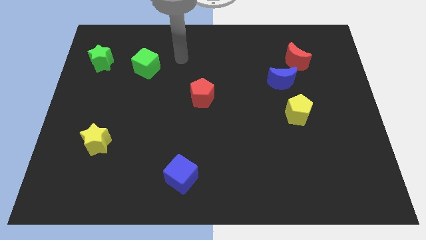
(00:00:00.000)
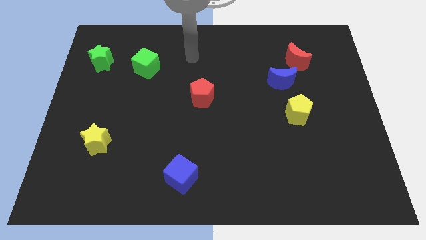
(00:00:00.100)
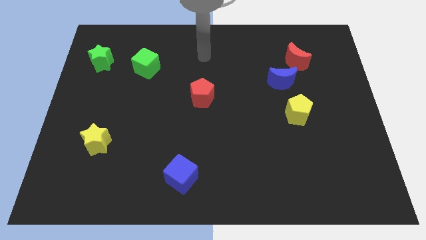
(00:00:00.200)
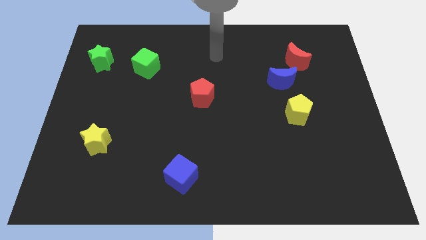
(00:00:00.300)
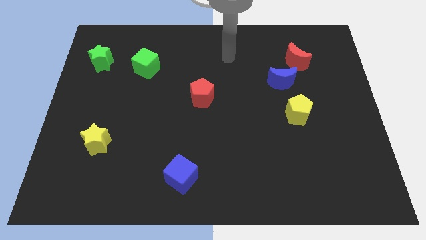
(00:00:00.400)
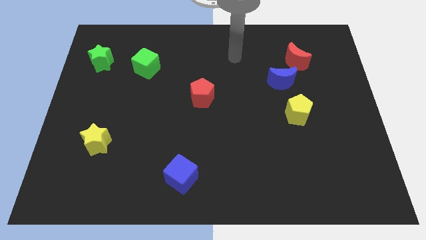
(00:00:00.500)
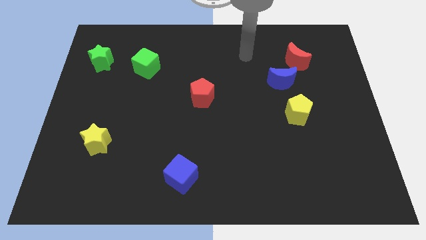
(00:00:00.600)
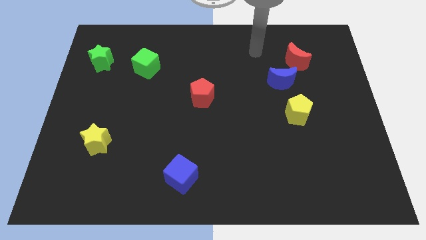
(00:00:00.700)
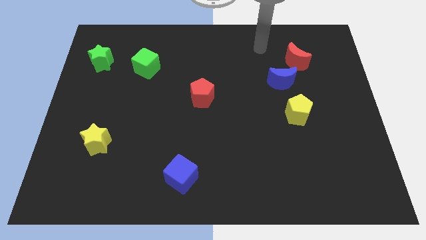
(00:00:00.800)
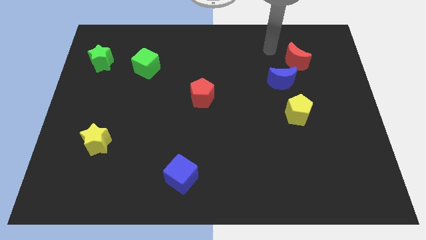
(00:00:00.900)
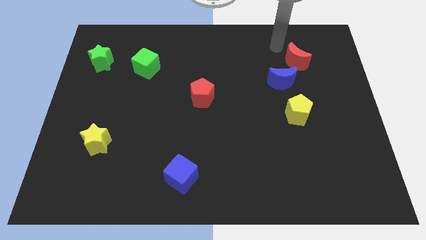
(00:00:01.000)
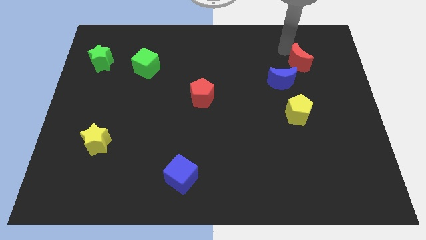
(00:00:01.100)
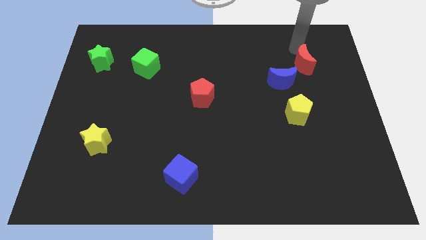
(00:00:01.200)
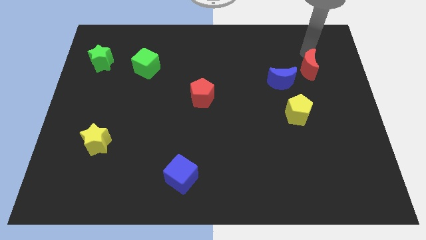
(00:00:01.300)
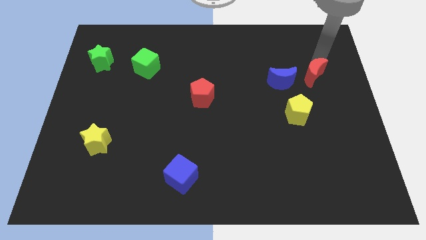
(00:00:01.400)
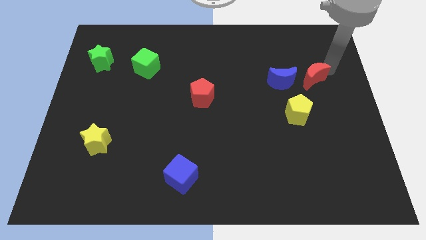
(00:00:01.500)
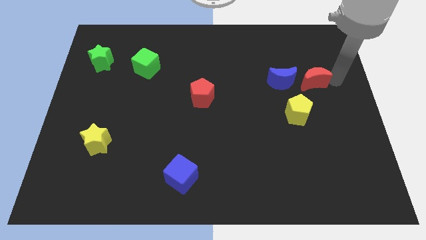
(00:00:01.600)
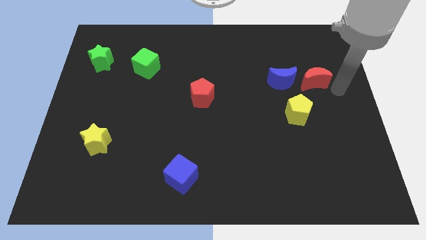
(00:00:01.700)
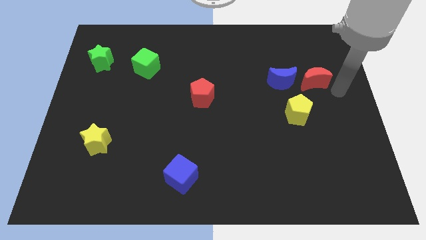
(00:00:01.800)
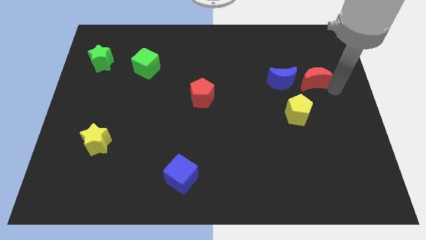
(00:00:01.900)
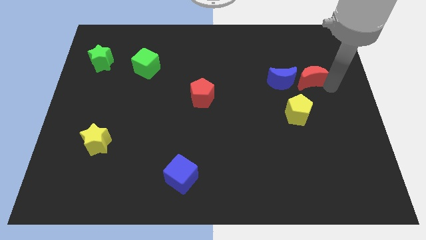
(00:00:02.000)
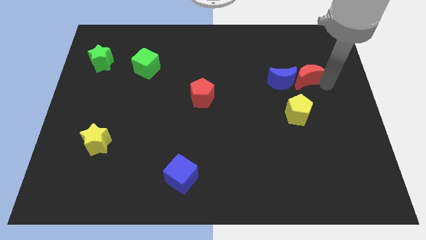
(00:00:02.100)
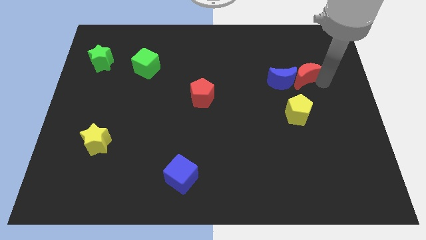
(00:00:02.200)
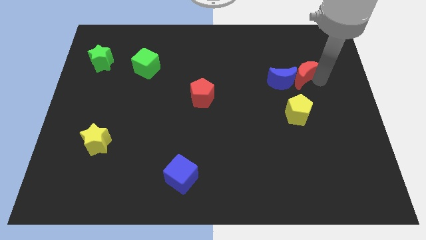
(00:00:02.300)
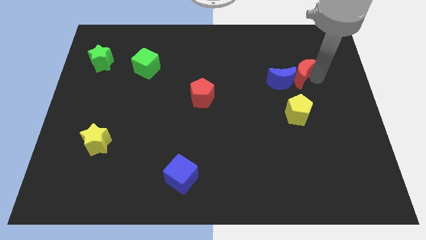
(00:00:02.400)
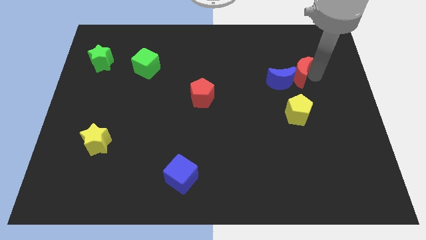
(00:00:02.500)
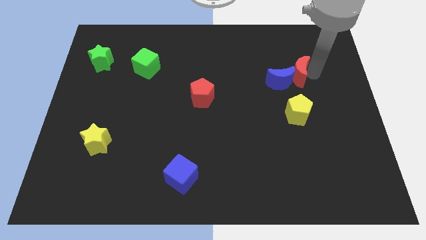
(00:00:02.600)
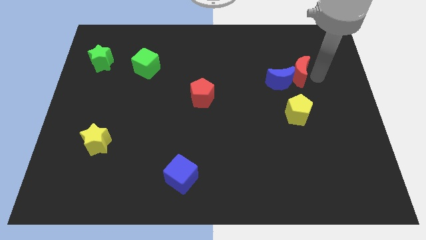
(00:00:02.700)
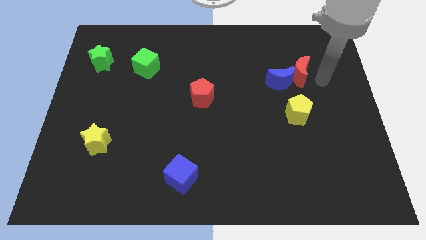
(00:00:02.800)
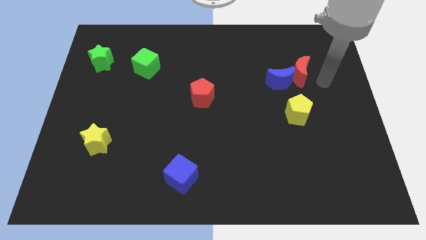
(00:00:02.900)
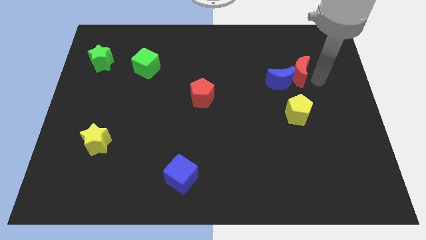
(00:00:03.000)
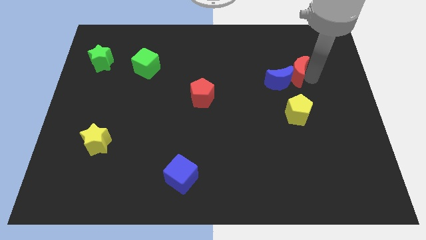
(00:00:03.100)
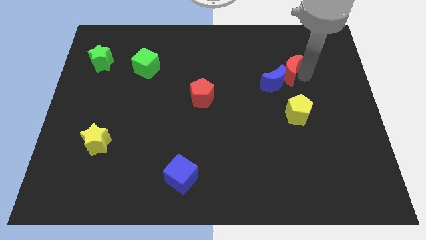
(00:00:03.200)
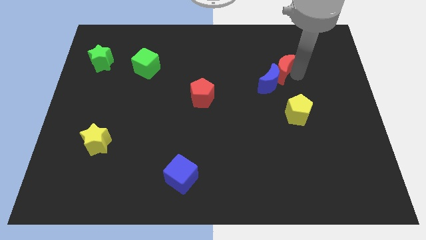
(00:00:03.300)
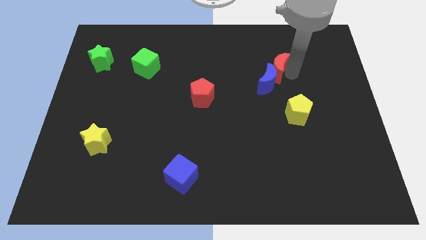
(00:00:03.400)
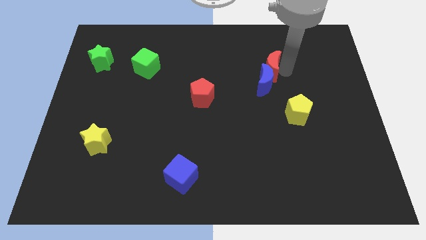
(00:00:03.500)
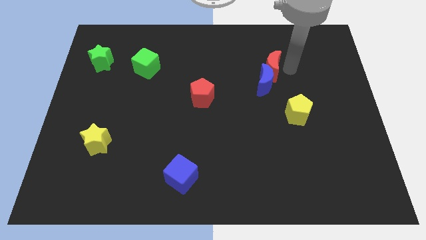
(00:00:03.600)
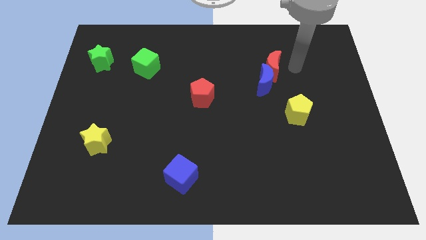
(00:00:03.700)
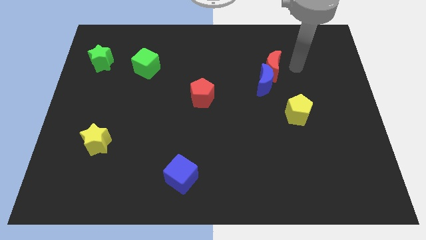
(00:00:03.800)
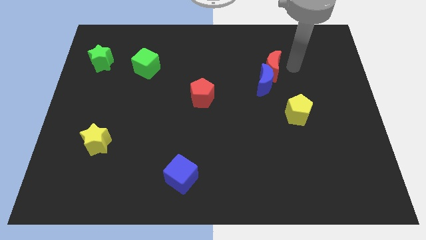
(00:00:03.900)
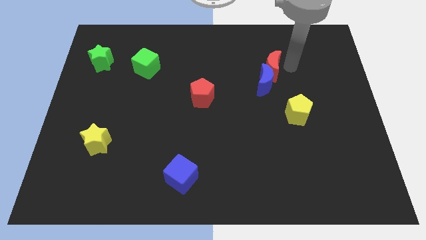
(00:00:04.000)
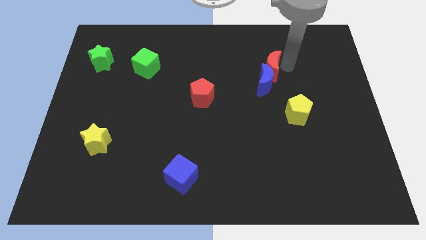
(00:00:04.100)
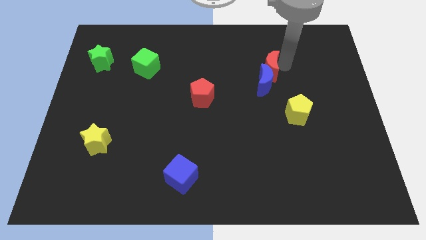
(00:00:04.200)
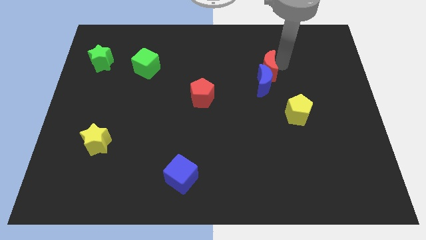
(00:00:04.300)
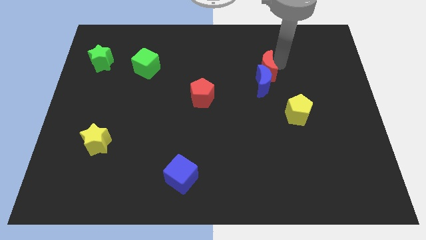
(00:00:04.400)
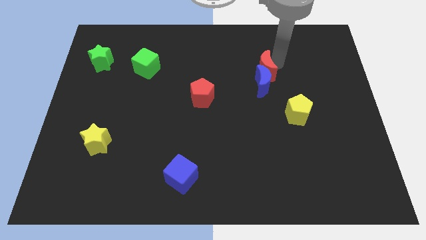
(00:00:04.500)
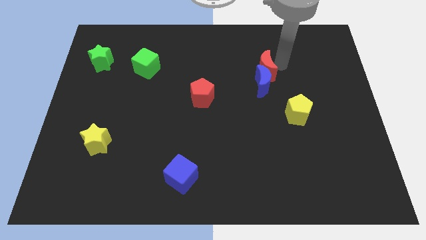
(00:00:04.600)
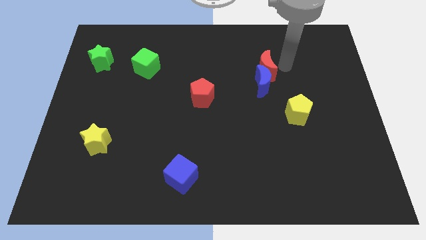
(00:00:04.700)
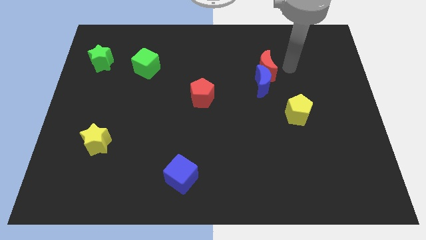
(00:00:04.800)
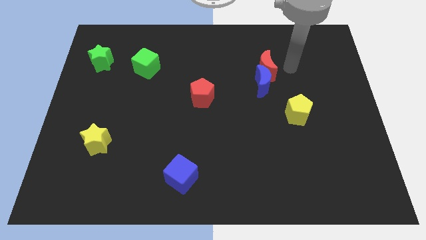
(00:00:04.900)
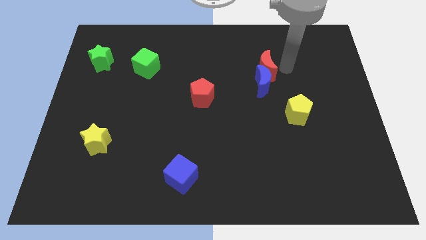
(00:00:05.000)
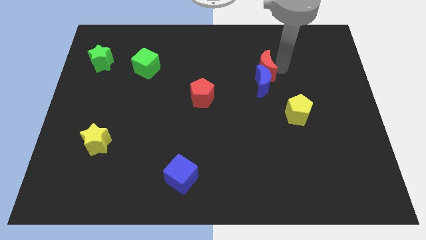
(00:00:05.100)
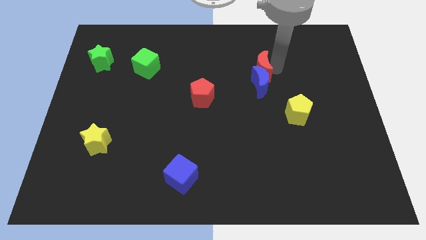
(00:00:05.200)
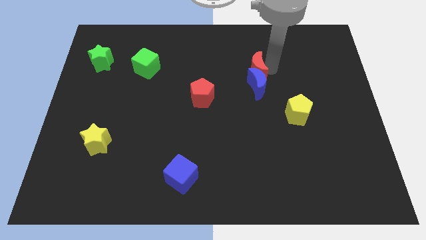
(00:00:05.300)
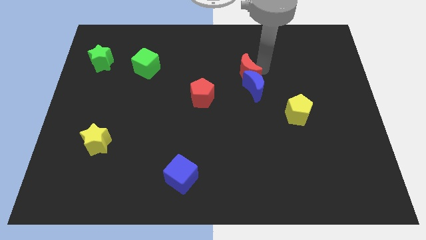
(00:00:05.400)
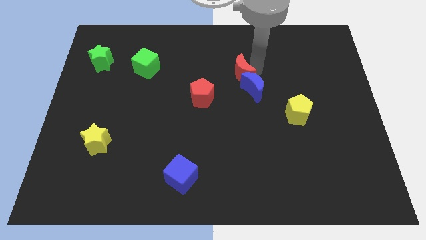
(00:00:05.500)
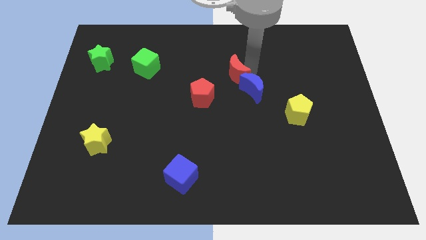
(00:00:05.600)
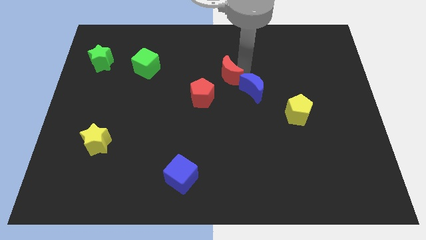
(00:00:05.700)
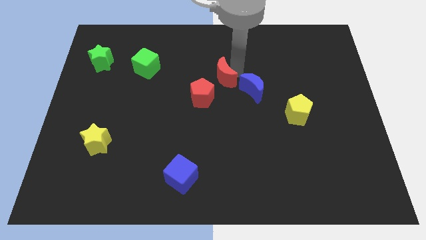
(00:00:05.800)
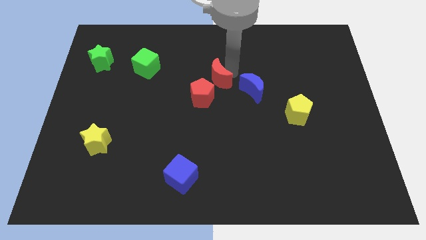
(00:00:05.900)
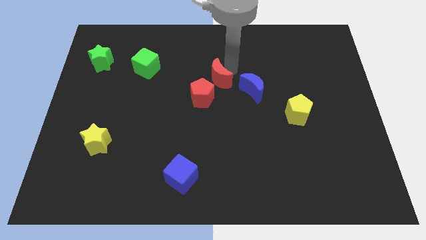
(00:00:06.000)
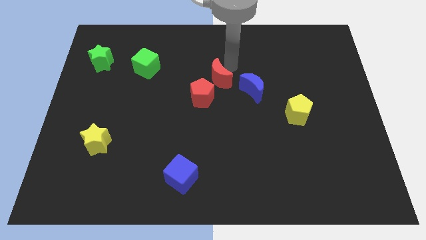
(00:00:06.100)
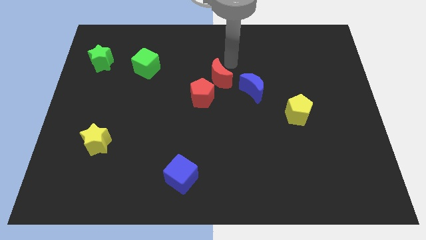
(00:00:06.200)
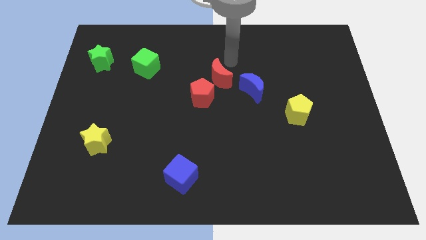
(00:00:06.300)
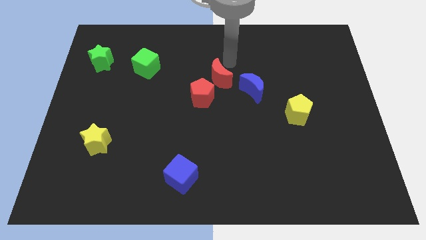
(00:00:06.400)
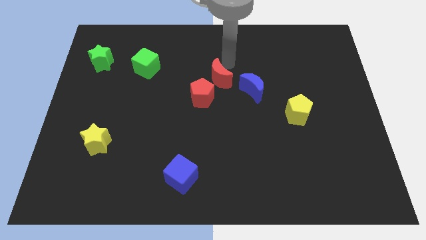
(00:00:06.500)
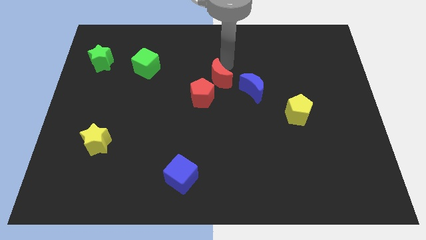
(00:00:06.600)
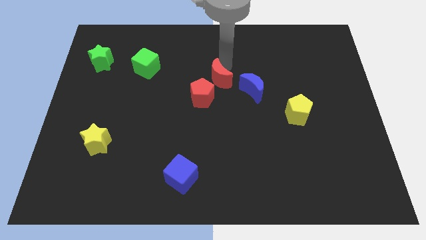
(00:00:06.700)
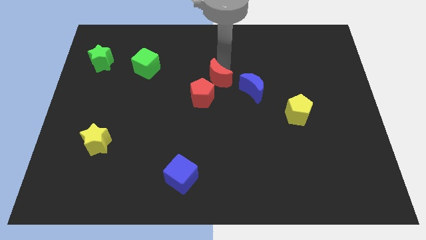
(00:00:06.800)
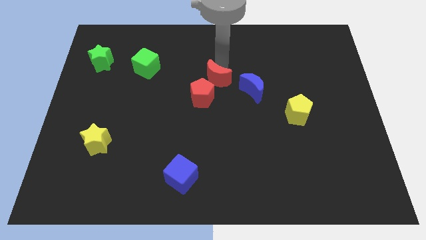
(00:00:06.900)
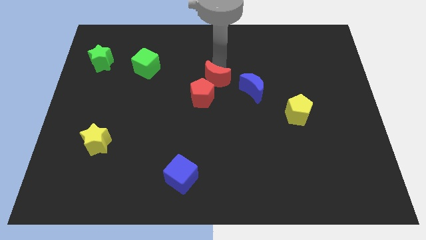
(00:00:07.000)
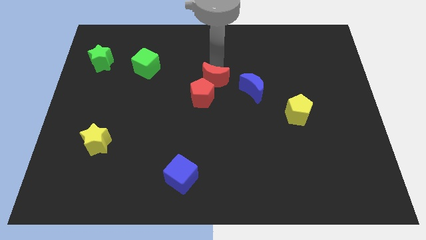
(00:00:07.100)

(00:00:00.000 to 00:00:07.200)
slide the red moon to the red pentagon
